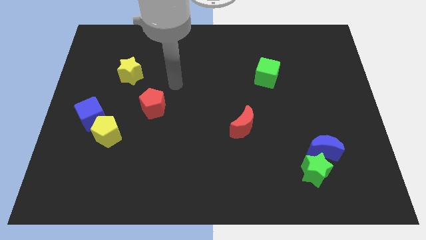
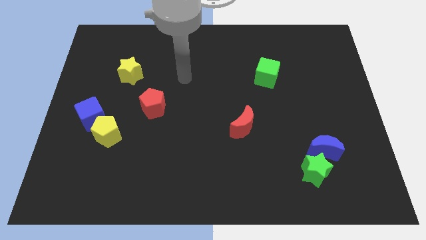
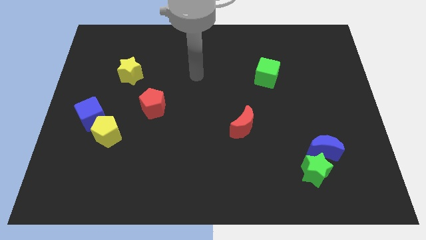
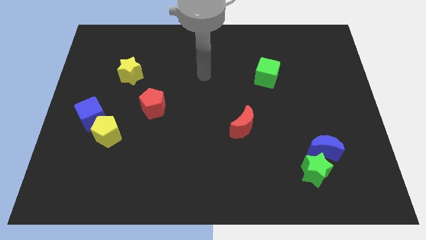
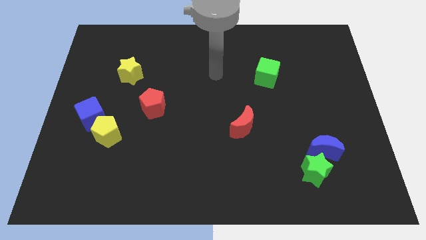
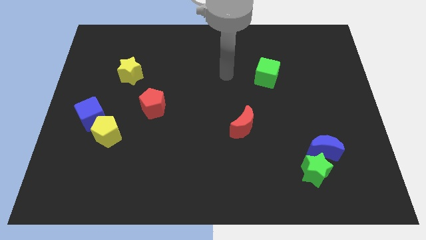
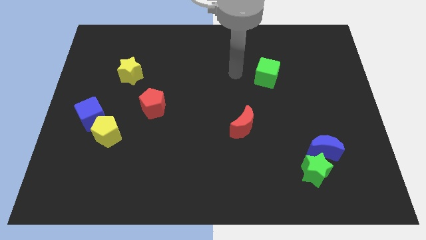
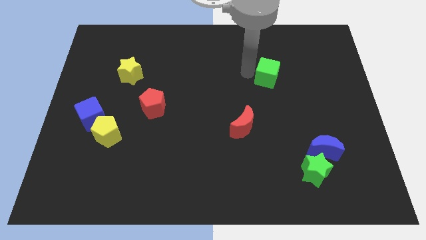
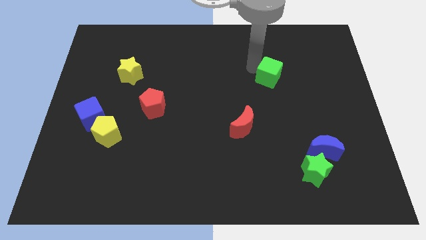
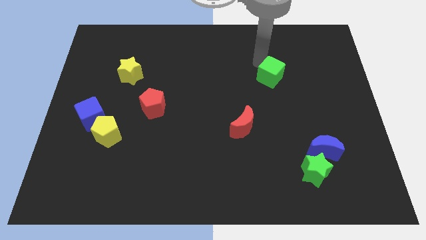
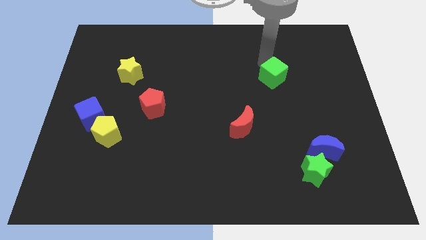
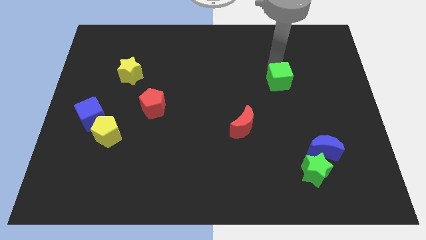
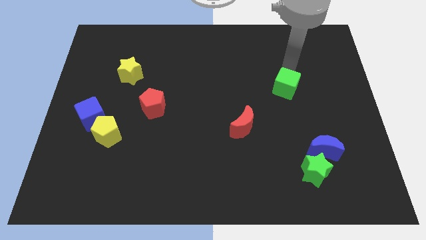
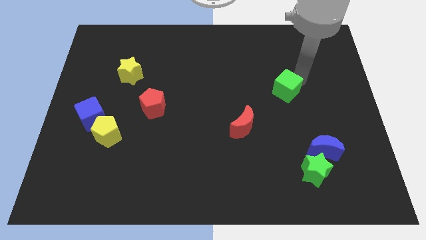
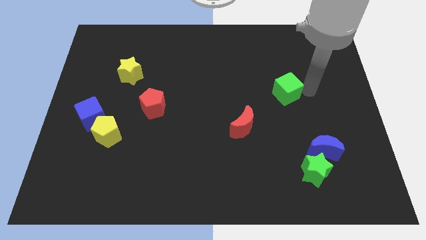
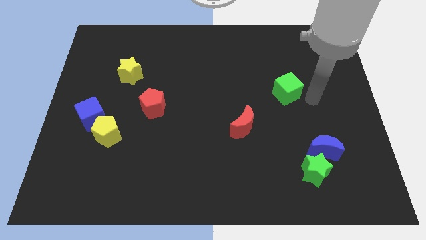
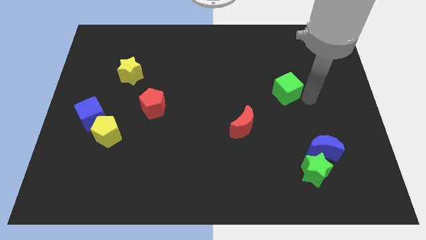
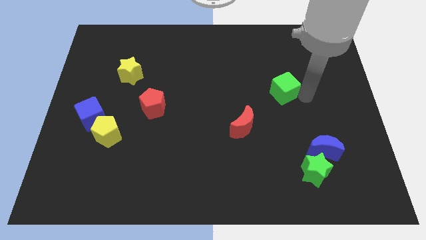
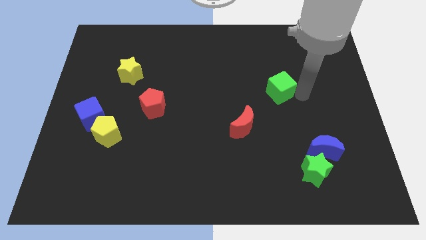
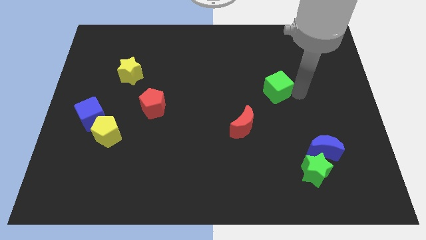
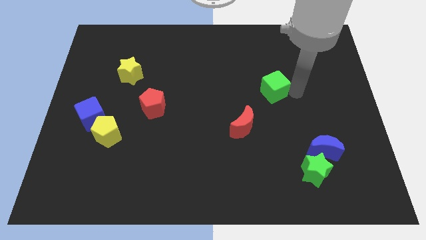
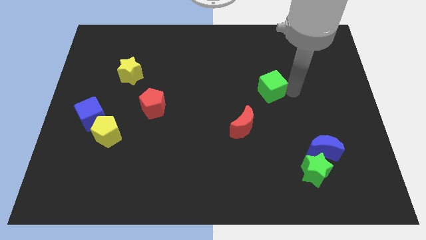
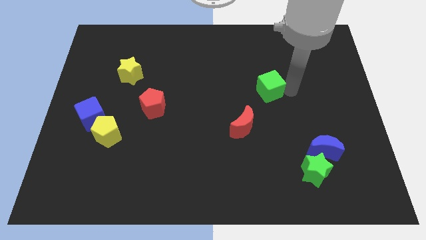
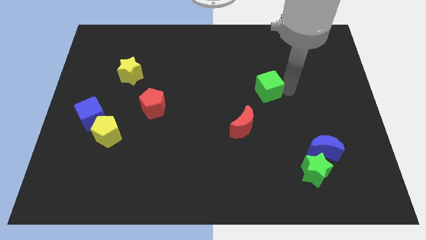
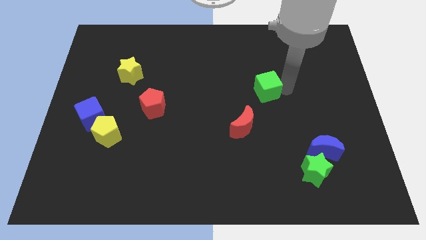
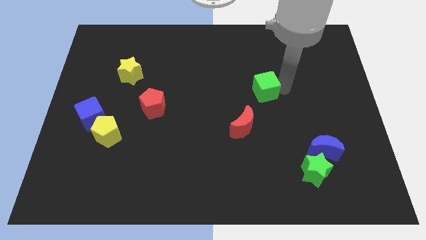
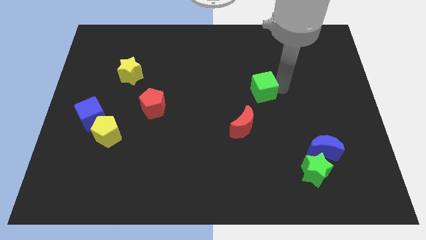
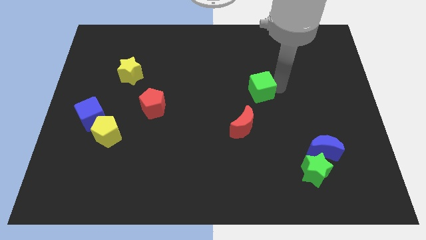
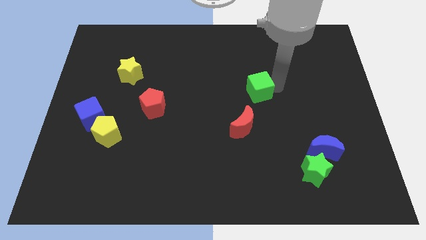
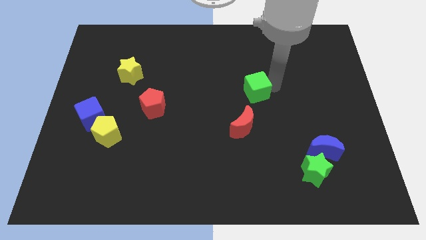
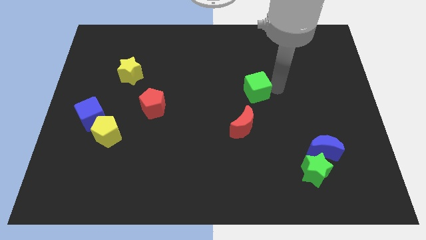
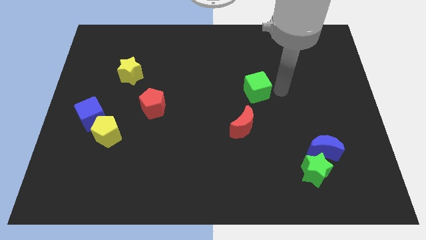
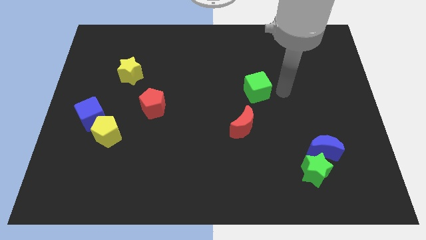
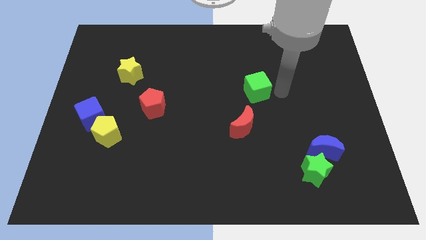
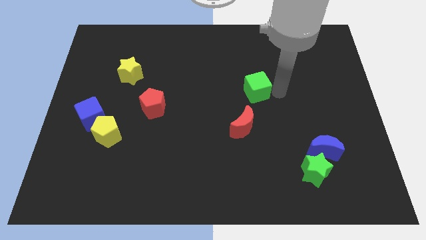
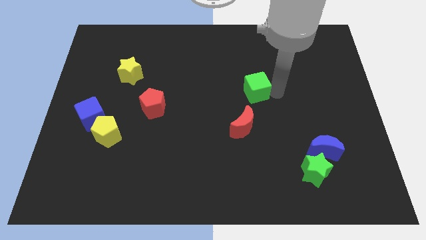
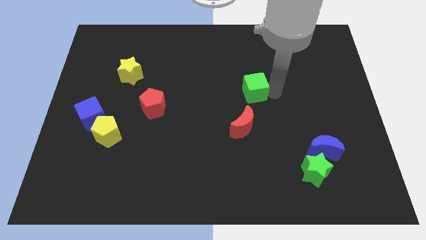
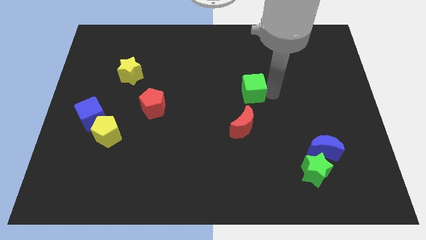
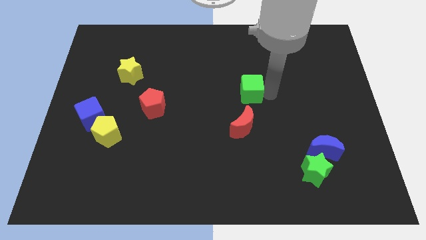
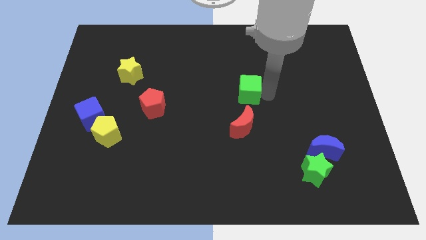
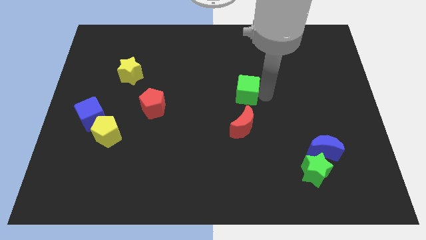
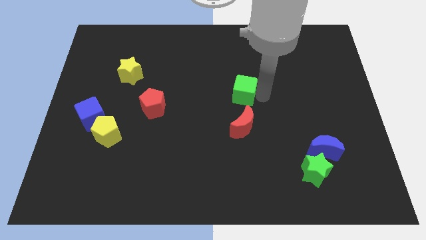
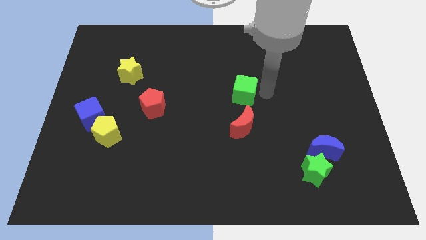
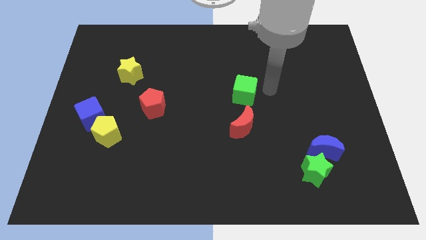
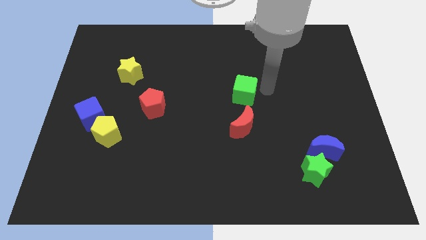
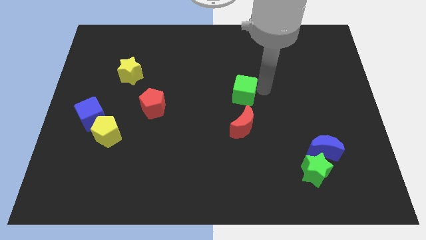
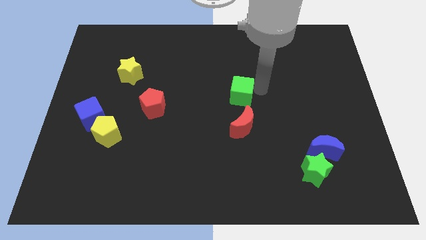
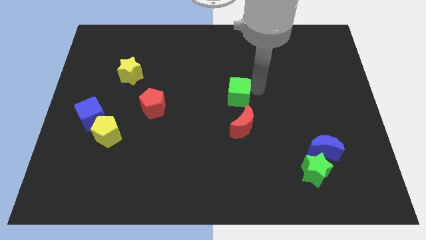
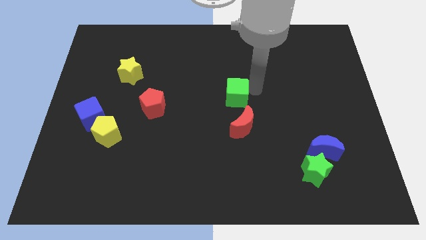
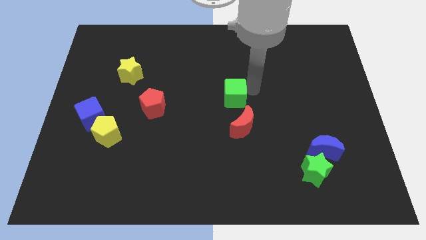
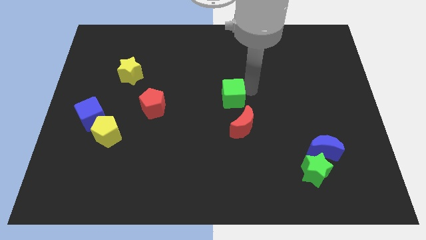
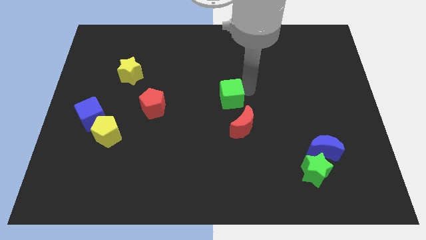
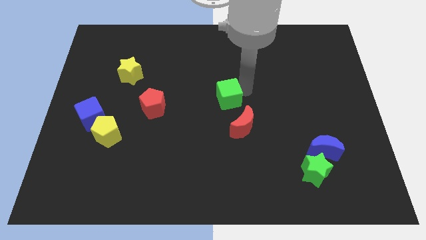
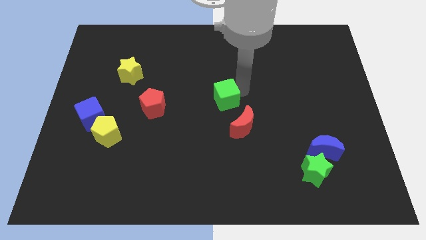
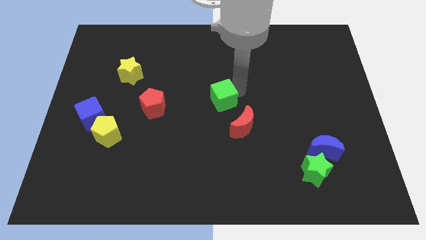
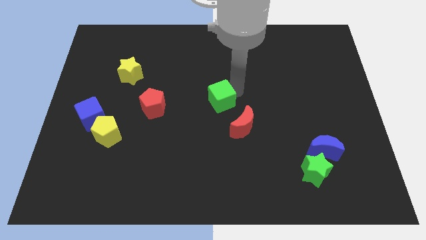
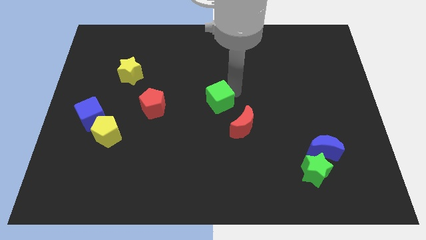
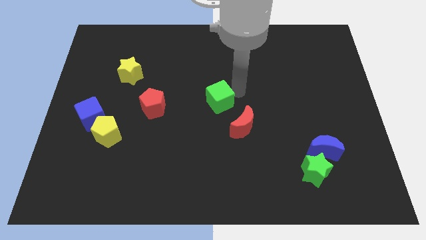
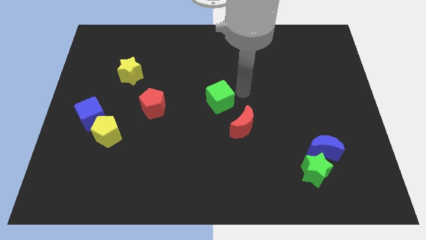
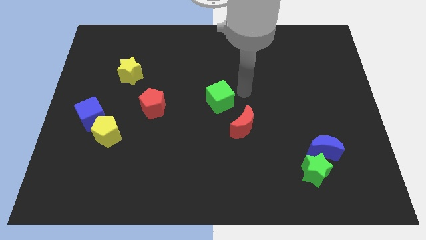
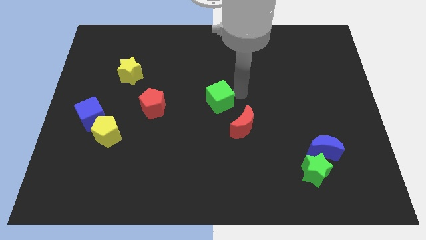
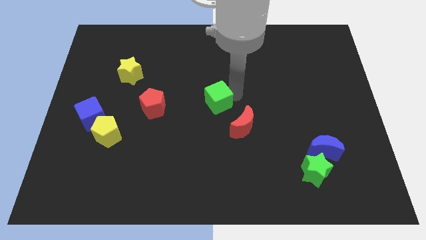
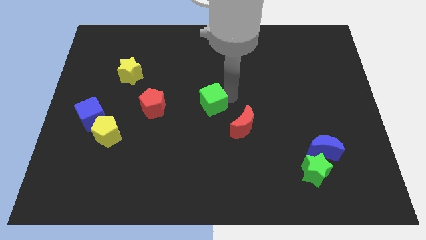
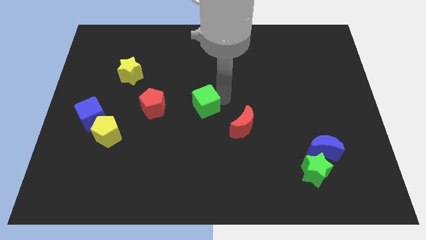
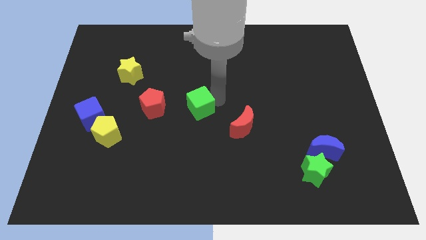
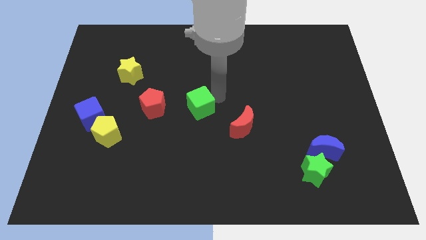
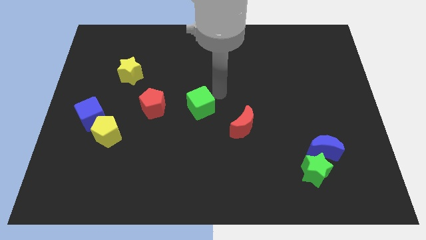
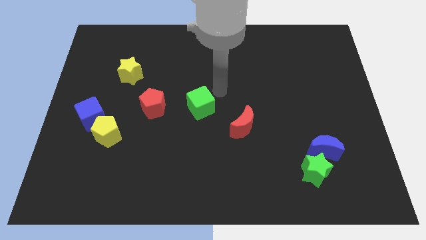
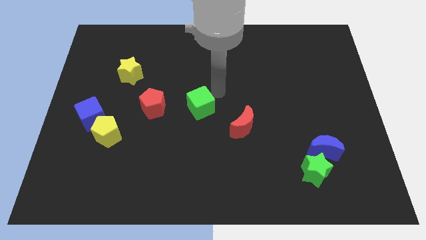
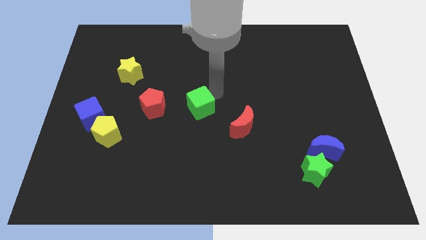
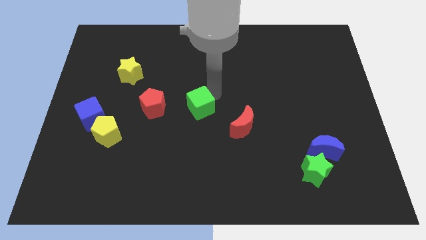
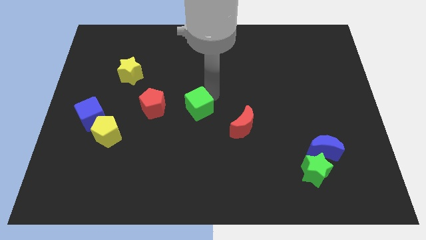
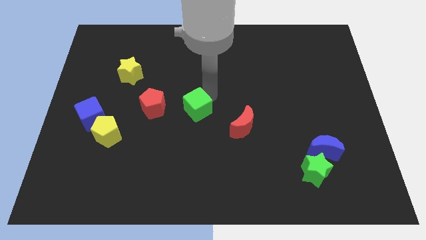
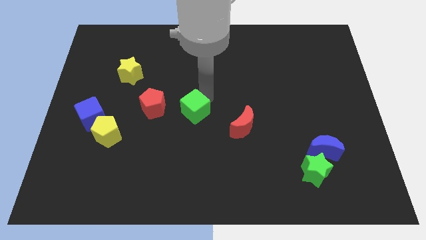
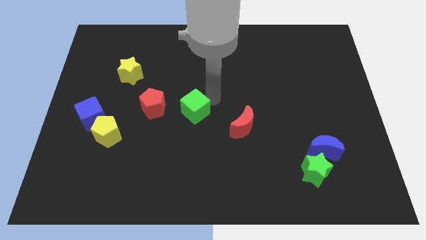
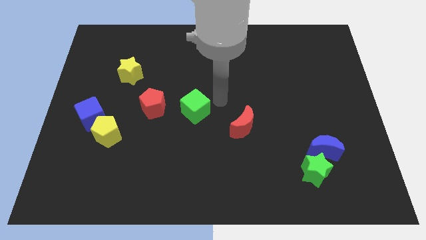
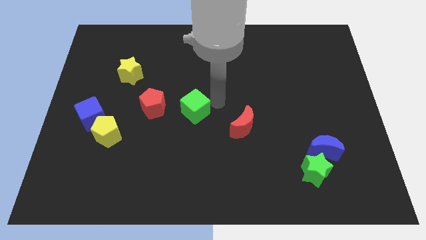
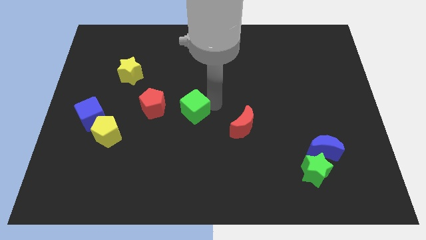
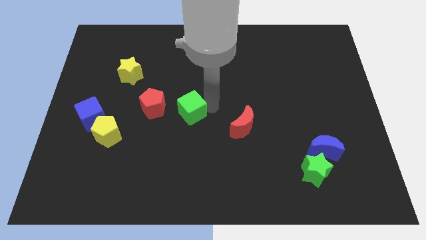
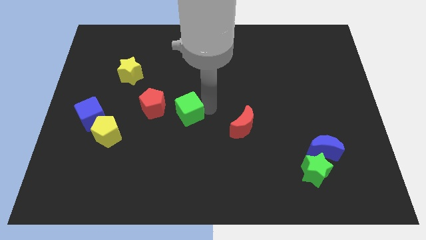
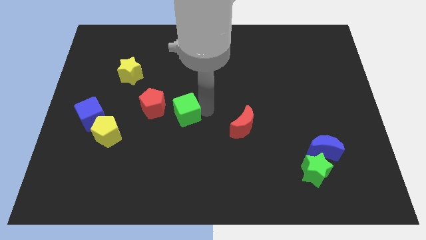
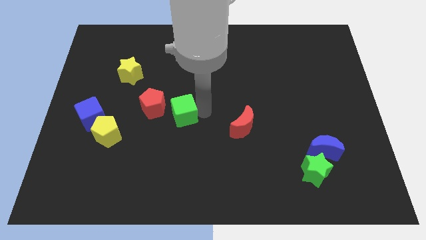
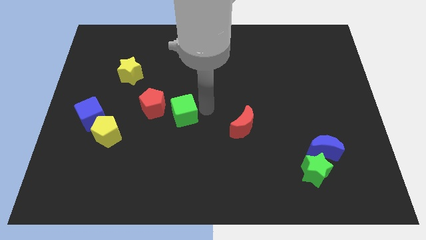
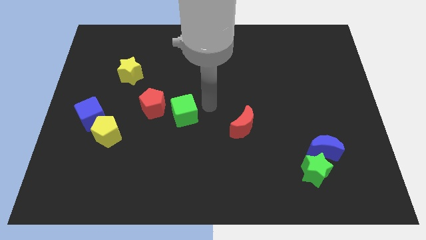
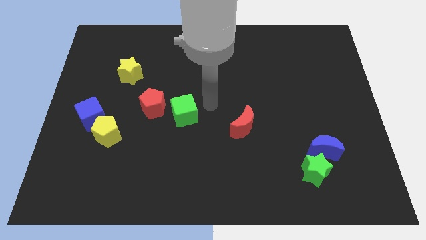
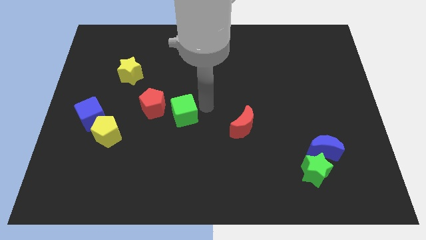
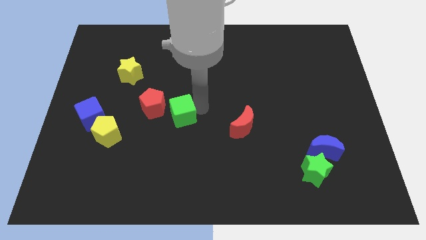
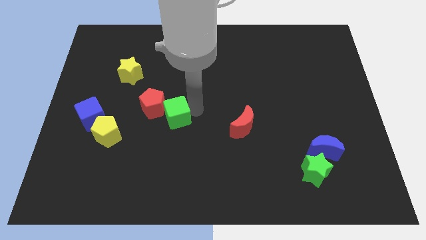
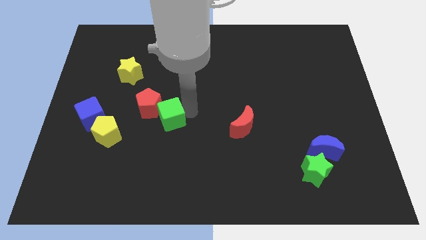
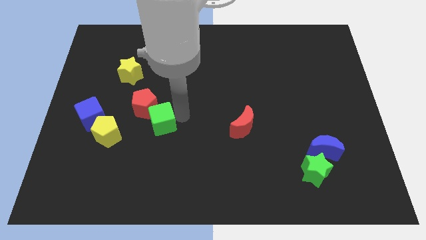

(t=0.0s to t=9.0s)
move the green cube to the right of the blue cube
